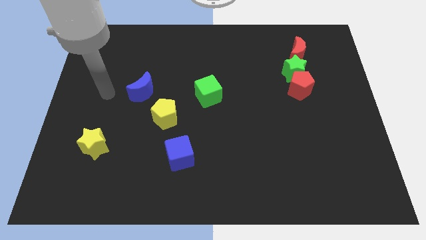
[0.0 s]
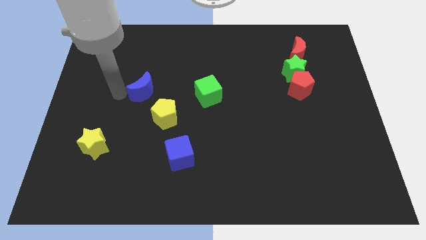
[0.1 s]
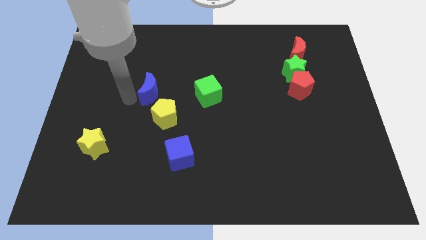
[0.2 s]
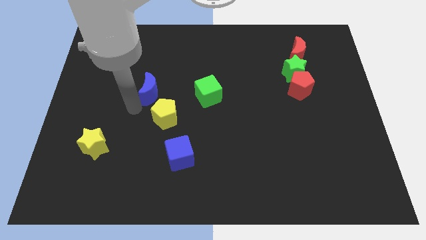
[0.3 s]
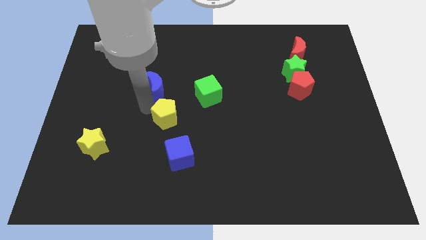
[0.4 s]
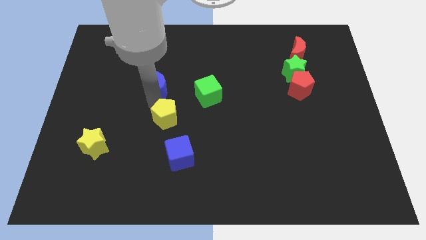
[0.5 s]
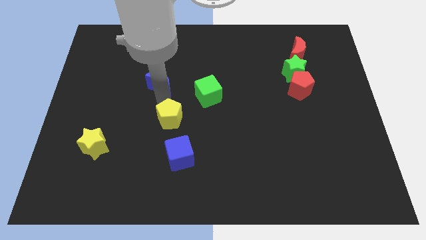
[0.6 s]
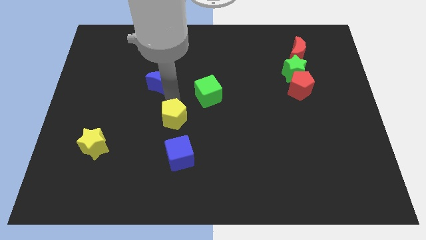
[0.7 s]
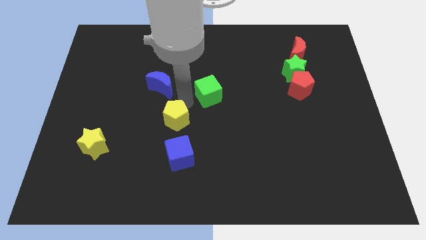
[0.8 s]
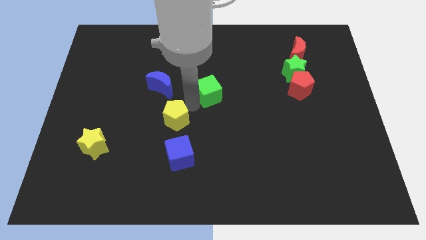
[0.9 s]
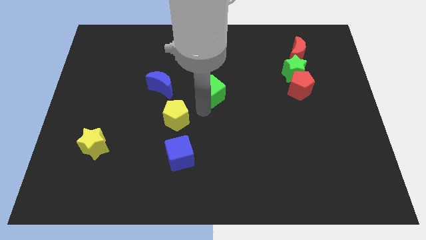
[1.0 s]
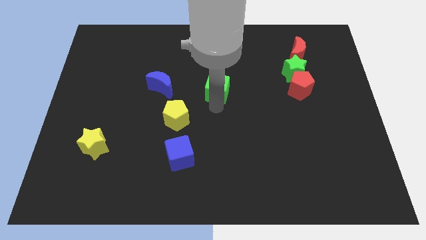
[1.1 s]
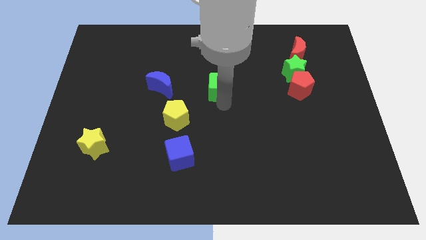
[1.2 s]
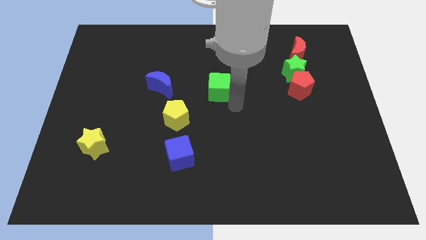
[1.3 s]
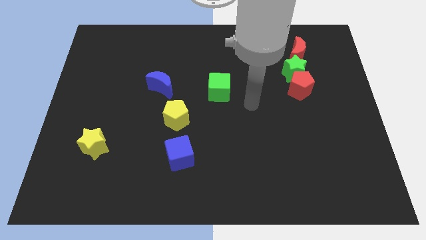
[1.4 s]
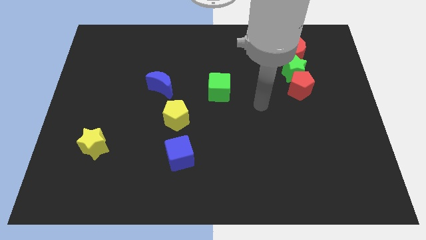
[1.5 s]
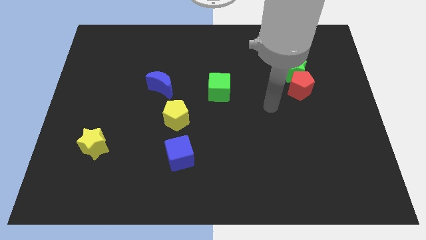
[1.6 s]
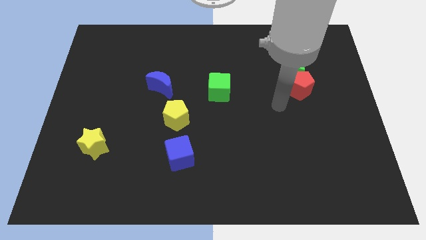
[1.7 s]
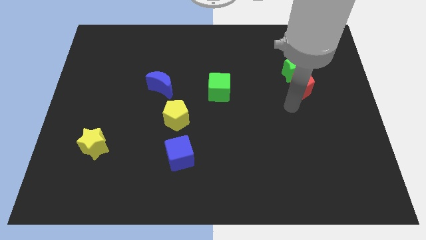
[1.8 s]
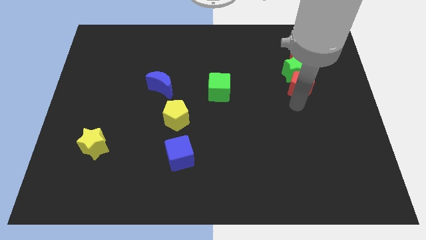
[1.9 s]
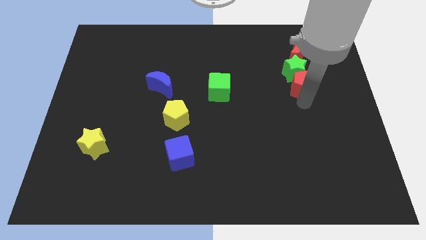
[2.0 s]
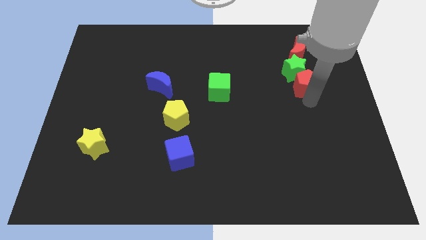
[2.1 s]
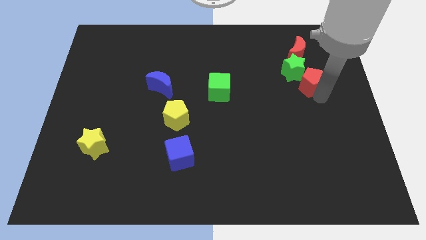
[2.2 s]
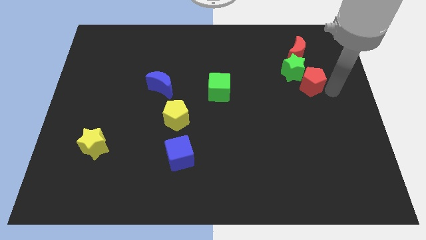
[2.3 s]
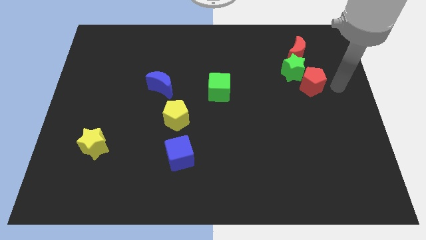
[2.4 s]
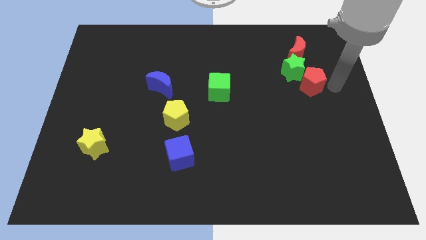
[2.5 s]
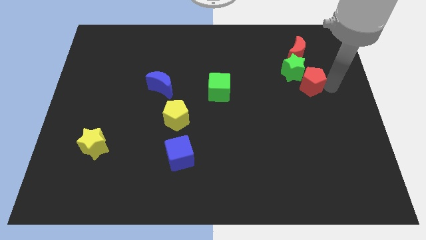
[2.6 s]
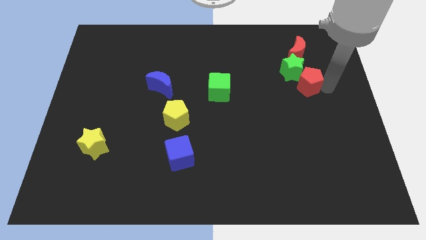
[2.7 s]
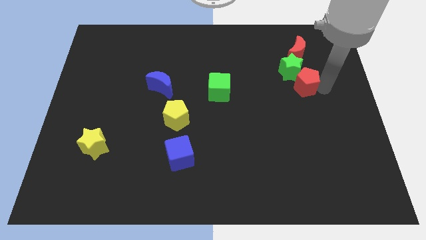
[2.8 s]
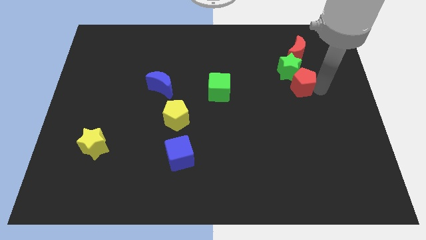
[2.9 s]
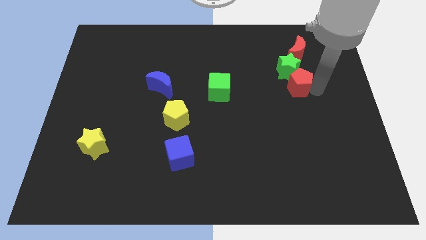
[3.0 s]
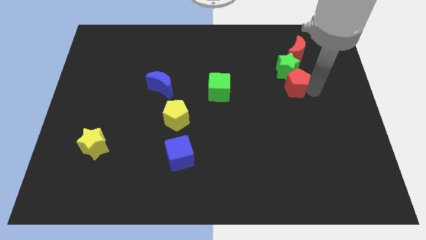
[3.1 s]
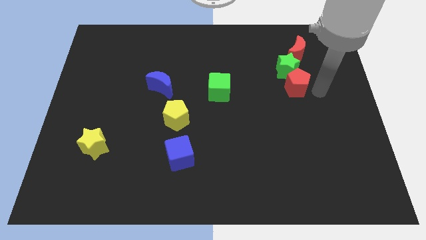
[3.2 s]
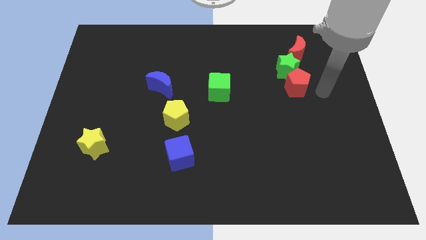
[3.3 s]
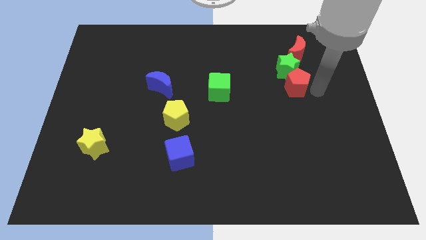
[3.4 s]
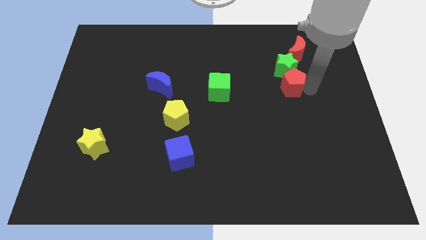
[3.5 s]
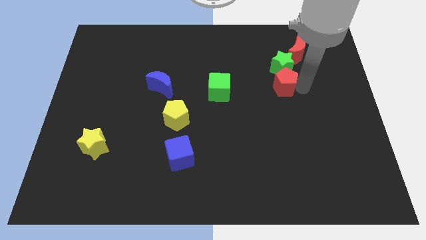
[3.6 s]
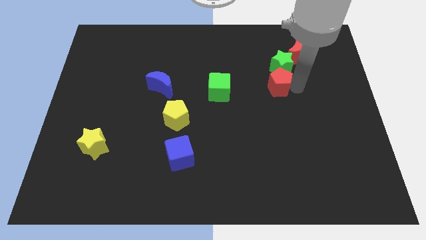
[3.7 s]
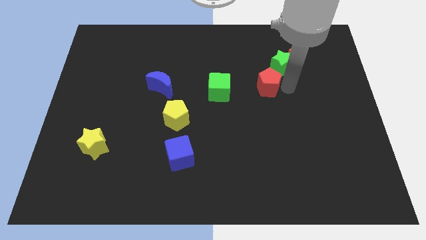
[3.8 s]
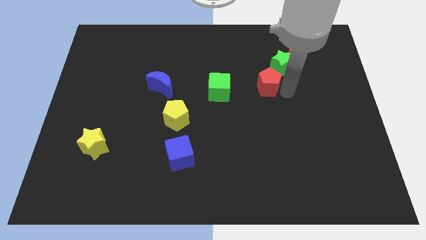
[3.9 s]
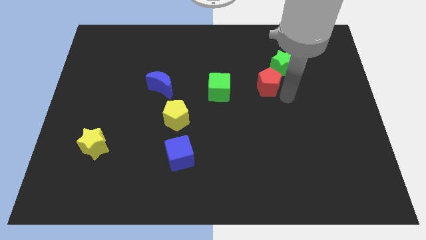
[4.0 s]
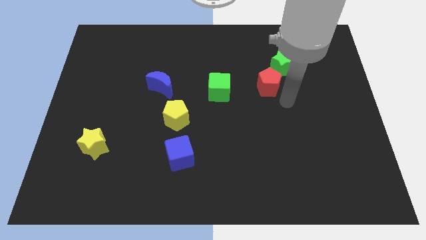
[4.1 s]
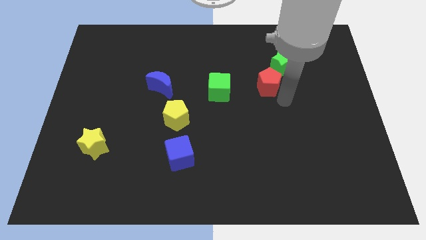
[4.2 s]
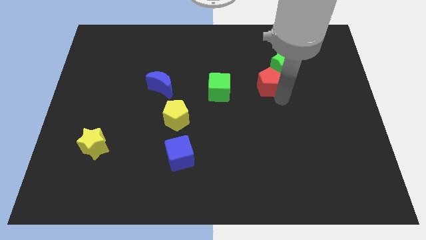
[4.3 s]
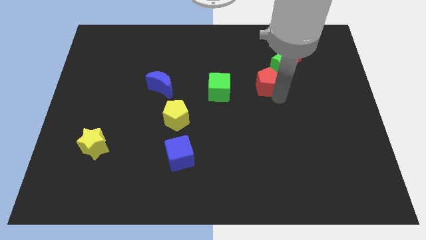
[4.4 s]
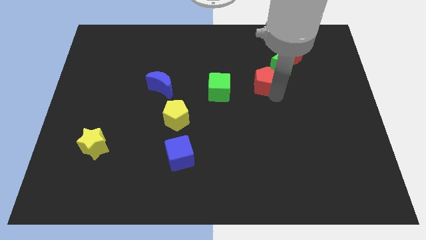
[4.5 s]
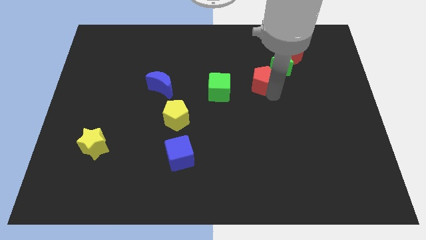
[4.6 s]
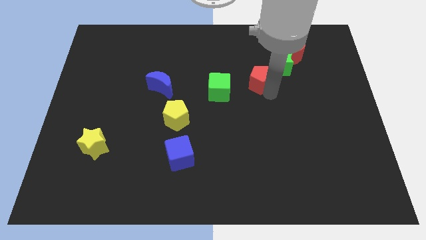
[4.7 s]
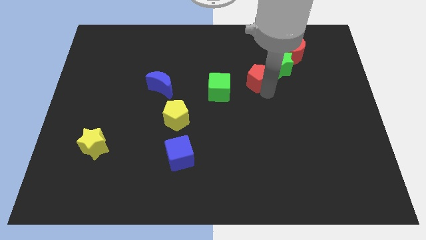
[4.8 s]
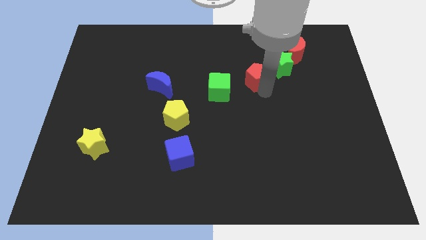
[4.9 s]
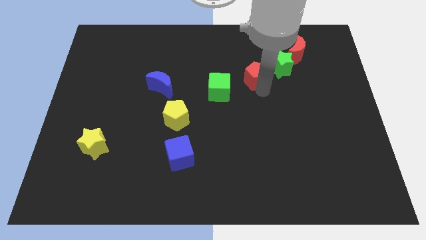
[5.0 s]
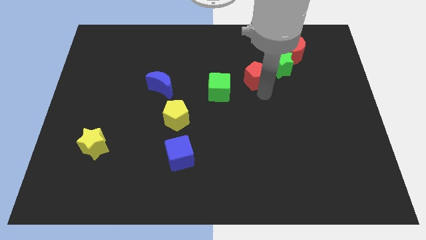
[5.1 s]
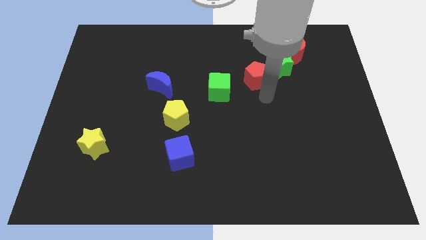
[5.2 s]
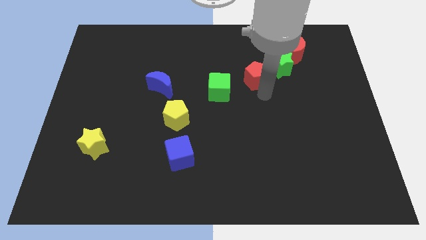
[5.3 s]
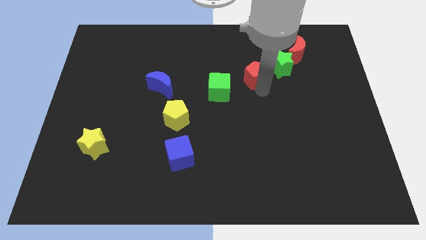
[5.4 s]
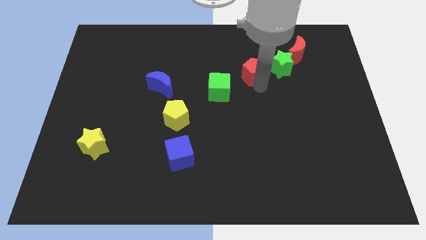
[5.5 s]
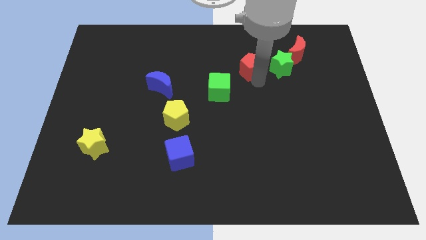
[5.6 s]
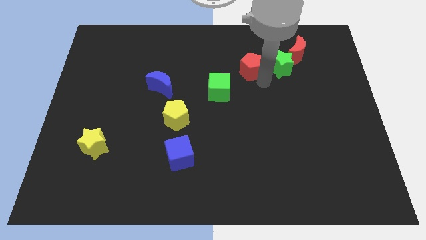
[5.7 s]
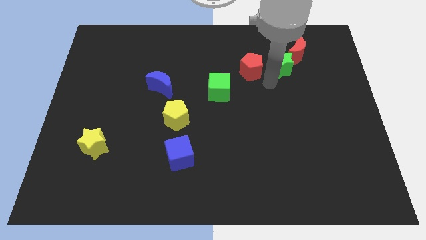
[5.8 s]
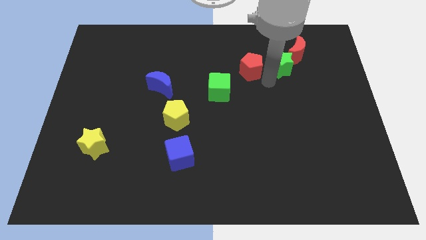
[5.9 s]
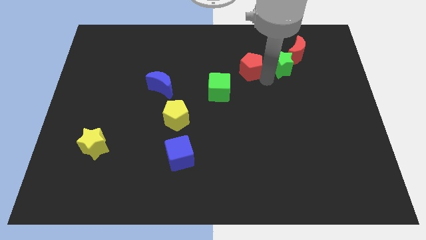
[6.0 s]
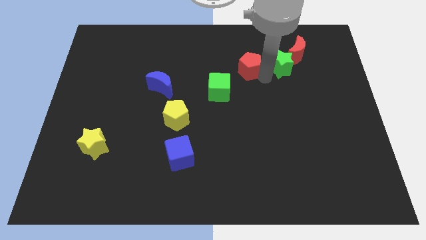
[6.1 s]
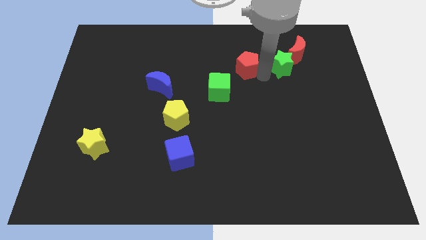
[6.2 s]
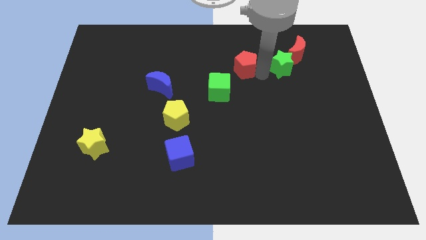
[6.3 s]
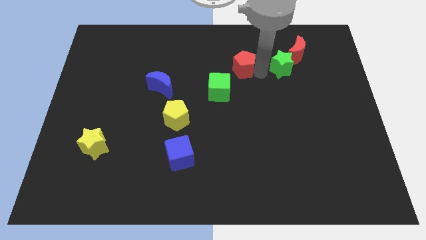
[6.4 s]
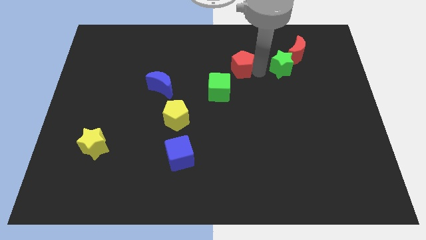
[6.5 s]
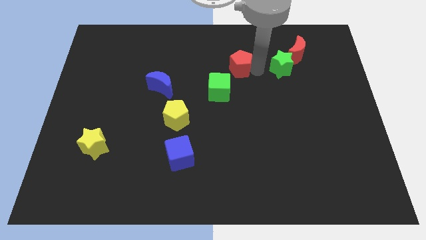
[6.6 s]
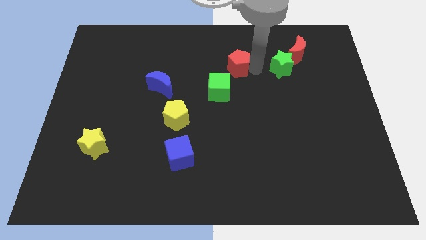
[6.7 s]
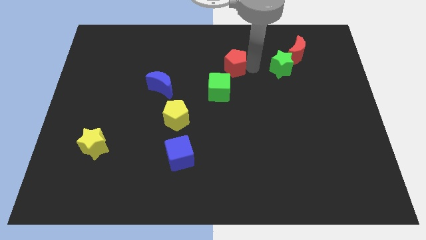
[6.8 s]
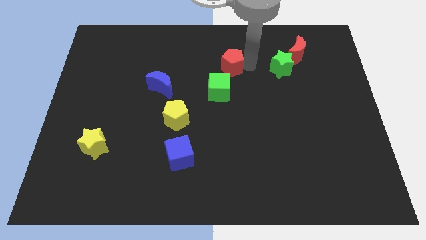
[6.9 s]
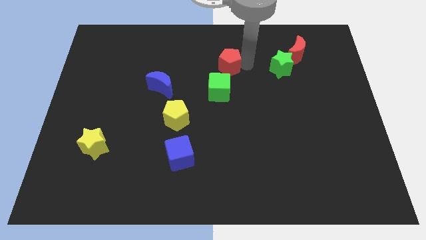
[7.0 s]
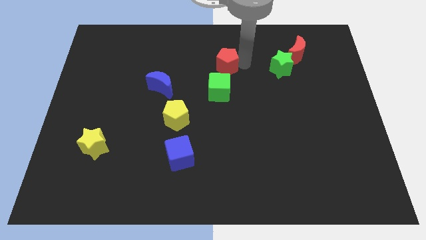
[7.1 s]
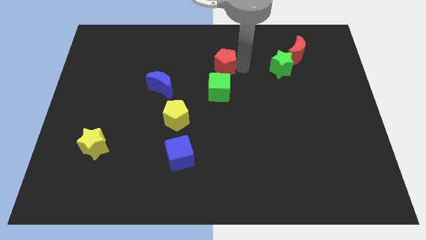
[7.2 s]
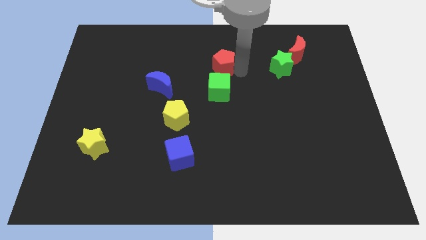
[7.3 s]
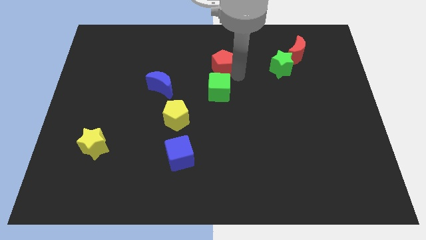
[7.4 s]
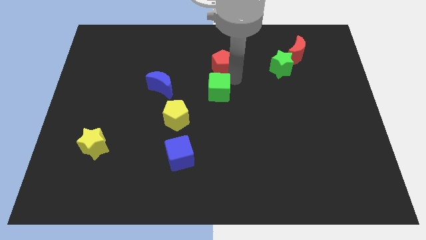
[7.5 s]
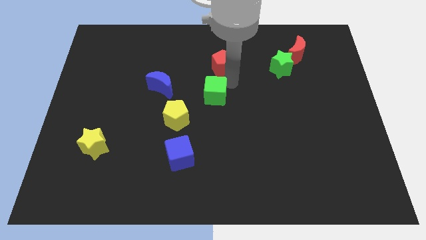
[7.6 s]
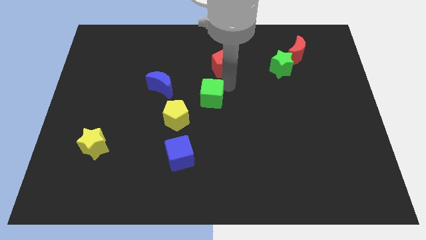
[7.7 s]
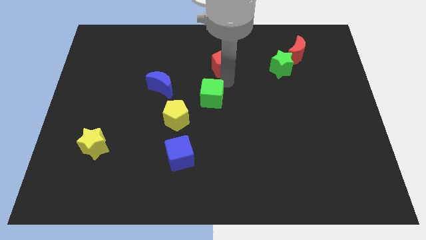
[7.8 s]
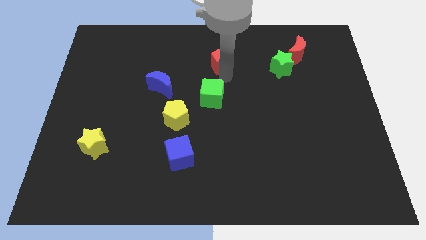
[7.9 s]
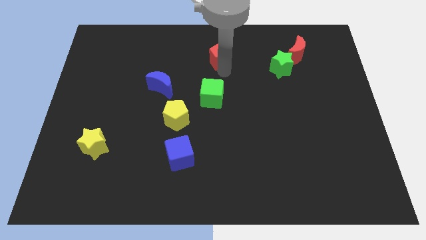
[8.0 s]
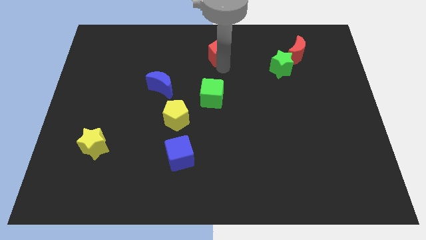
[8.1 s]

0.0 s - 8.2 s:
move the red pentagon to the top
